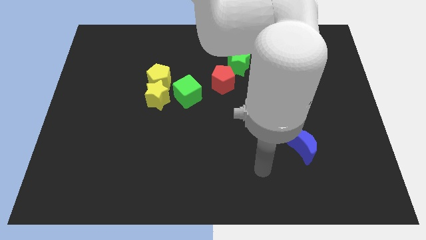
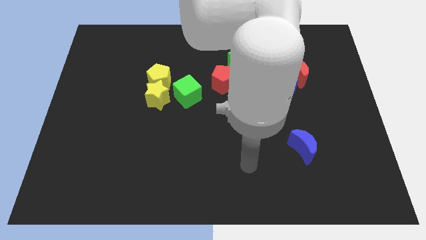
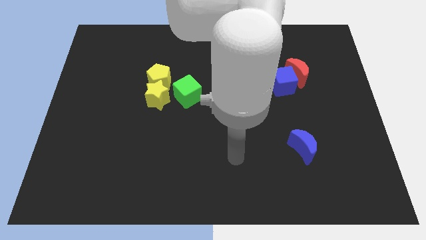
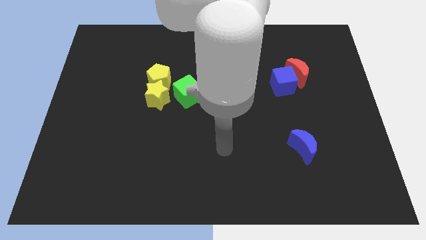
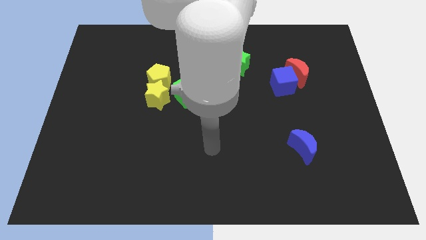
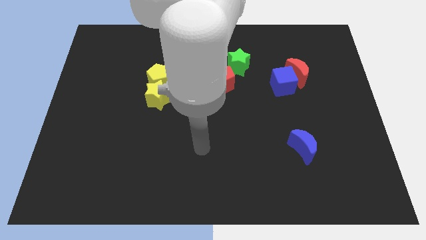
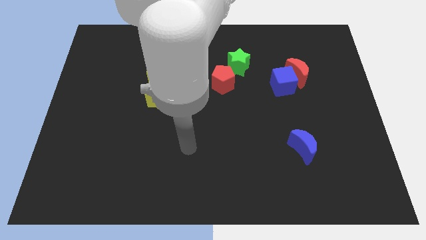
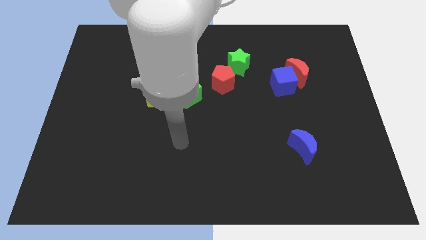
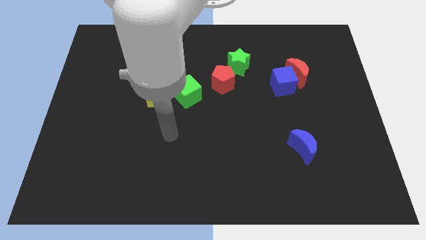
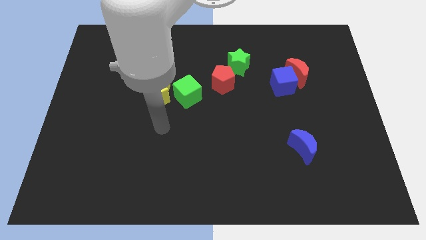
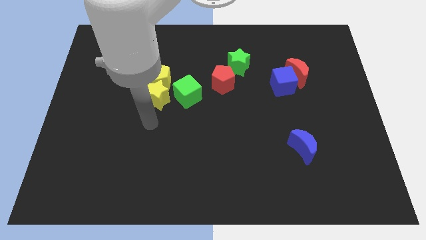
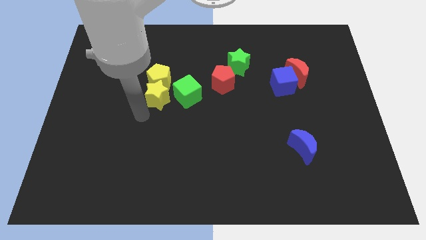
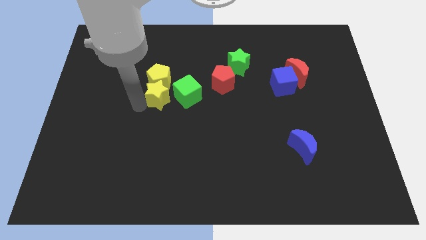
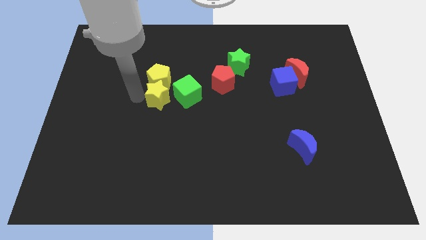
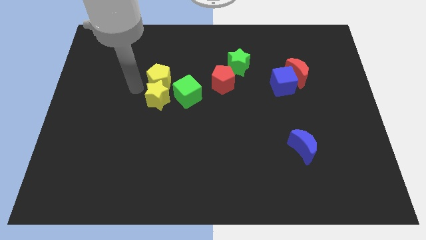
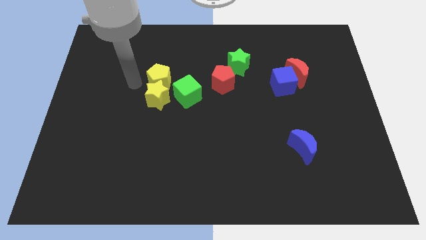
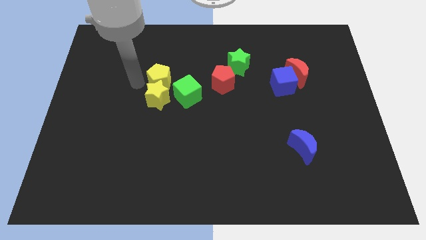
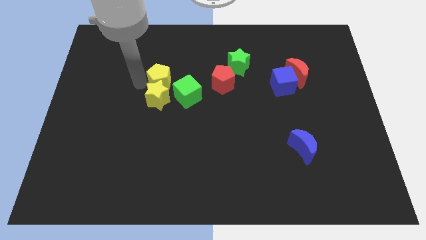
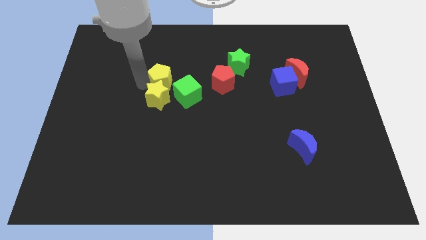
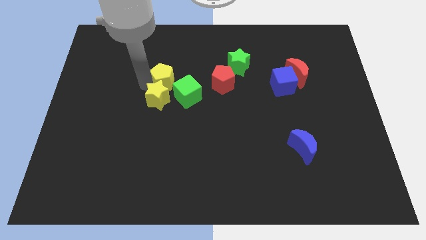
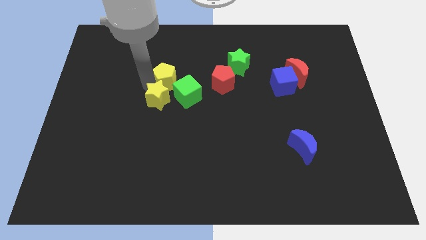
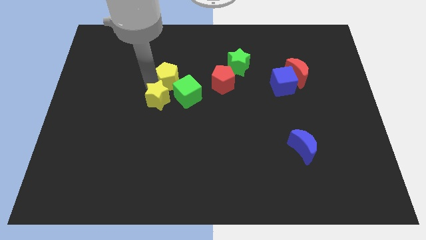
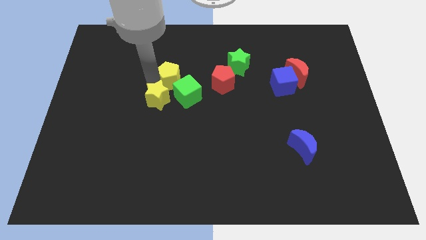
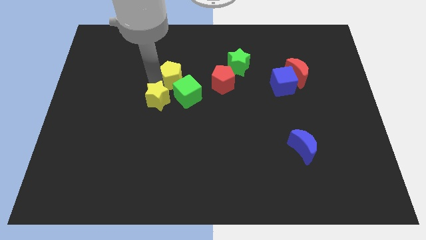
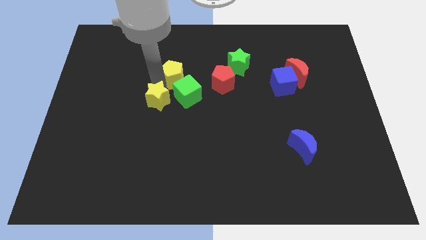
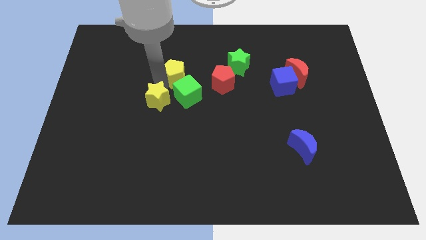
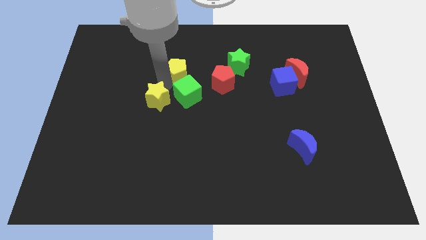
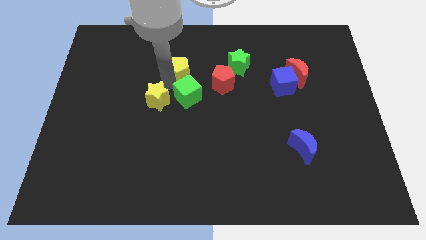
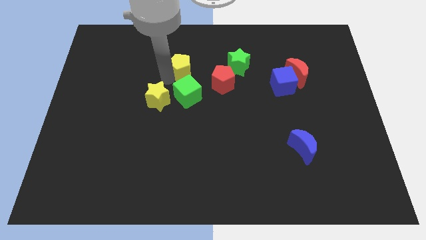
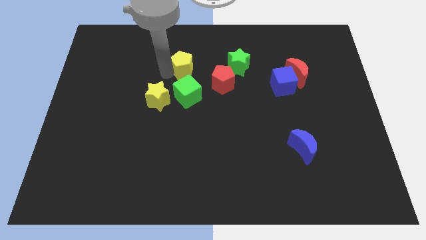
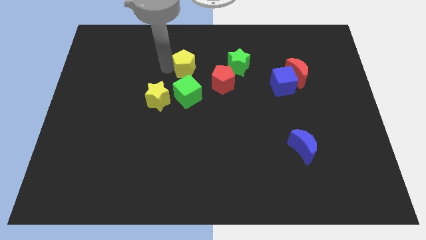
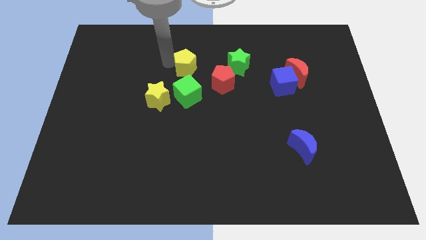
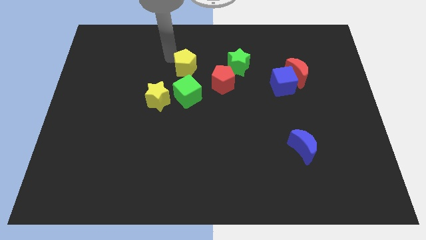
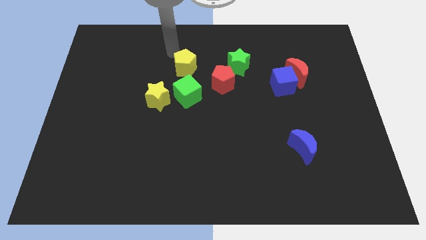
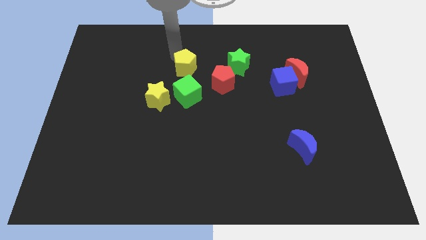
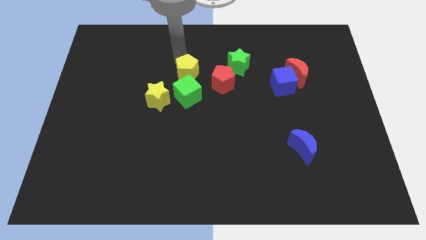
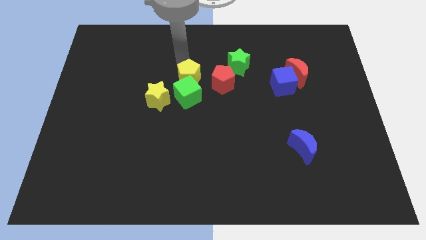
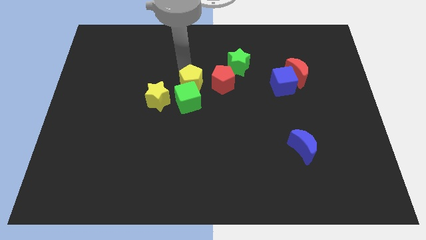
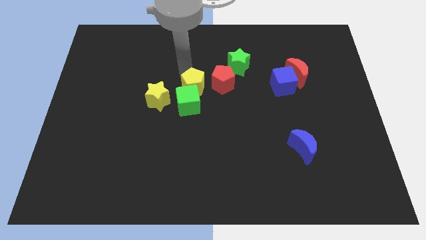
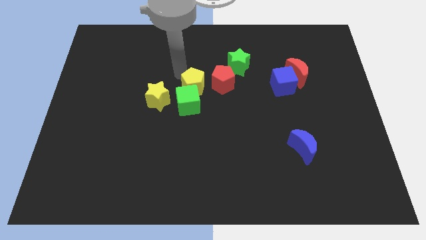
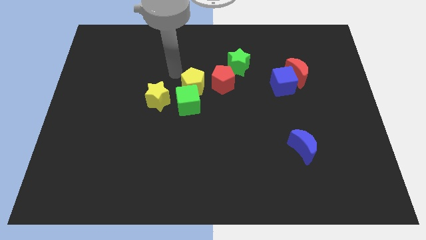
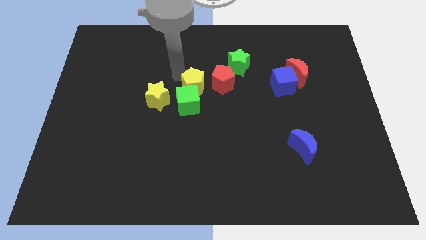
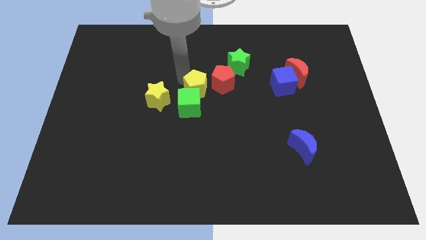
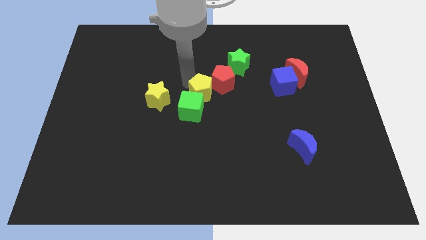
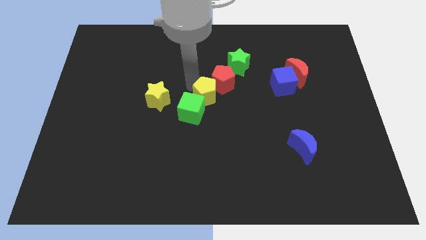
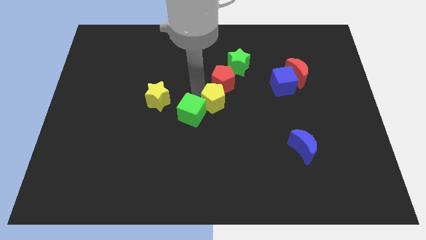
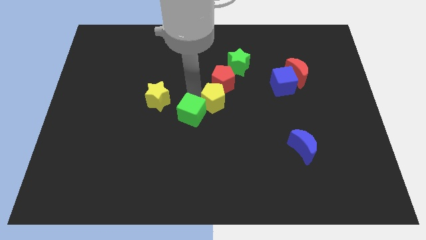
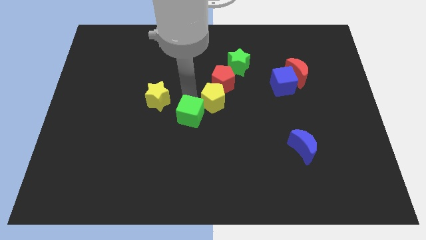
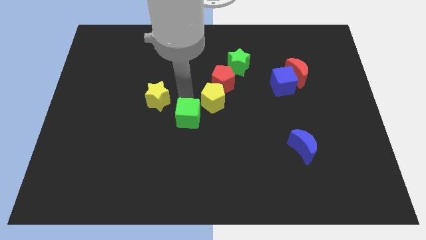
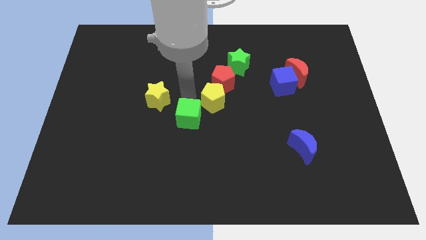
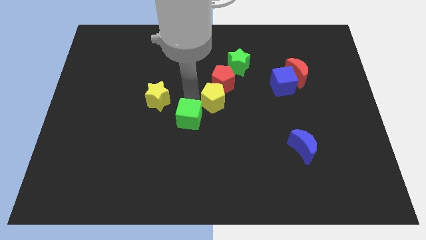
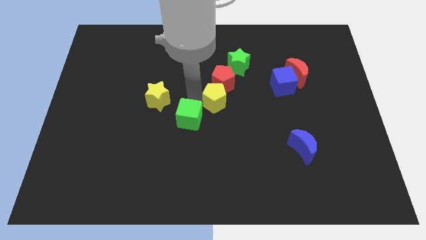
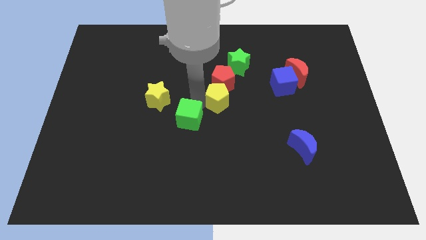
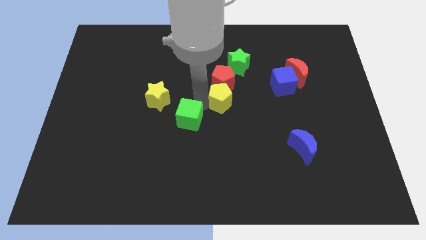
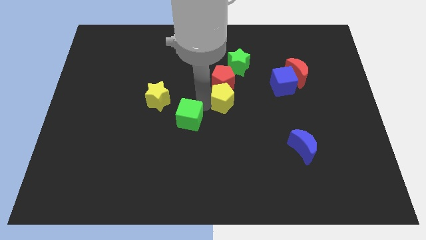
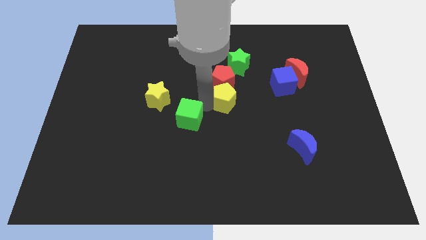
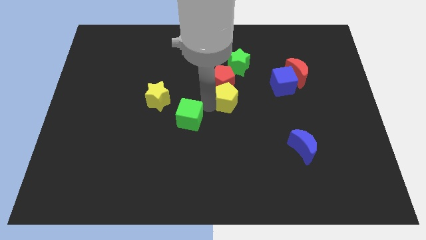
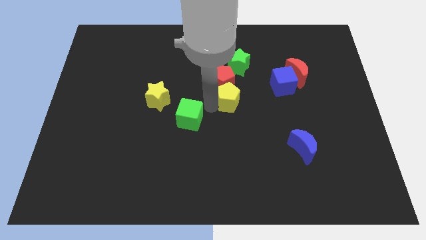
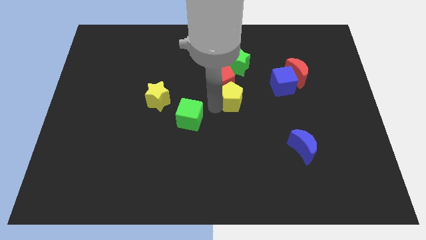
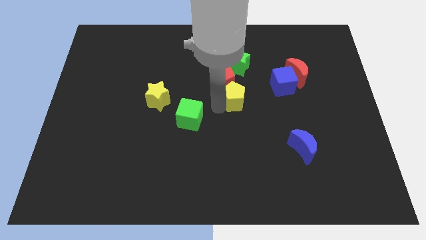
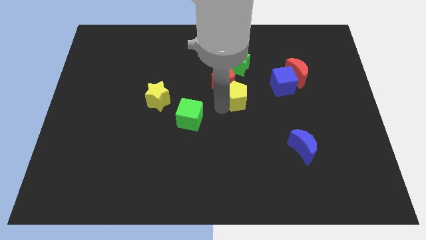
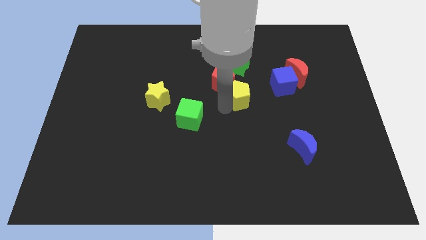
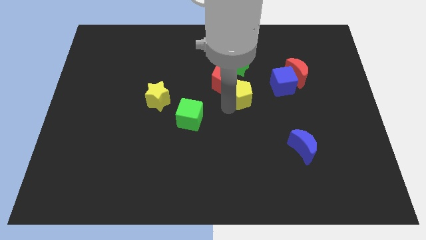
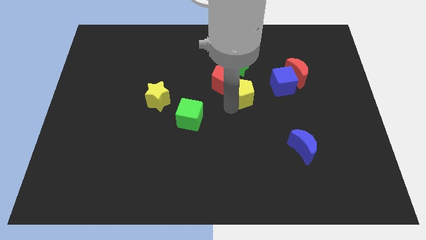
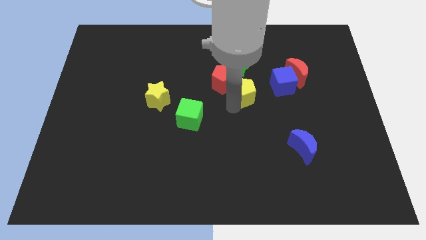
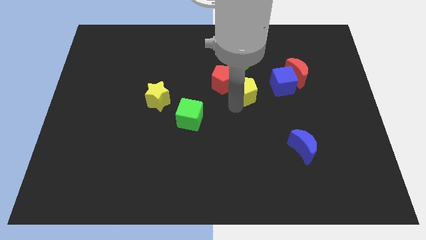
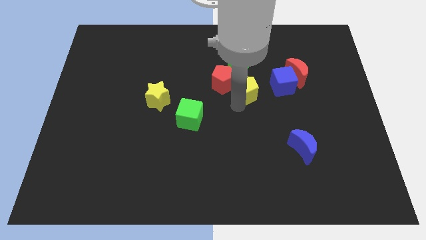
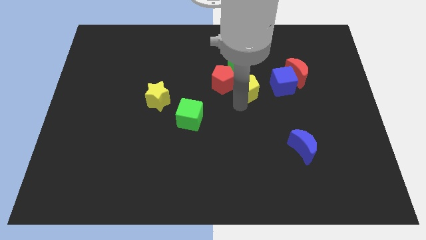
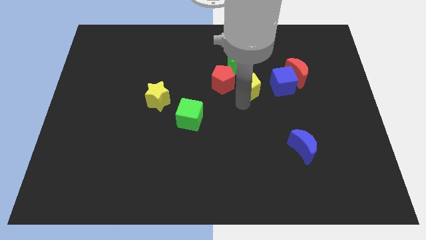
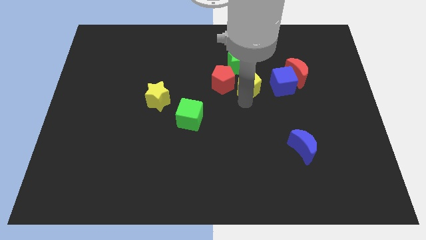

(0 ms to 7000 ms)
move the yellow pentagon just left of the red moon

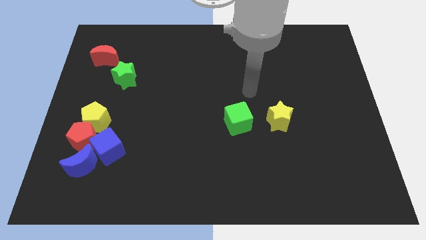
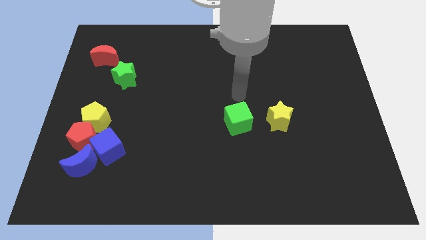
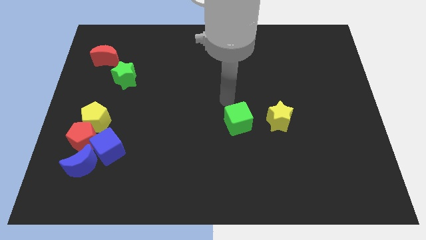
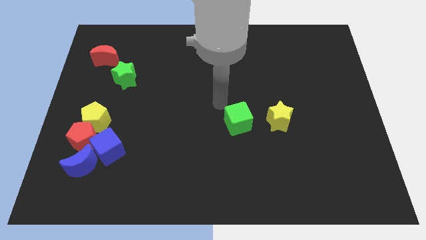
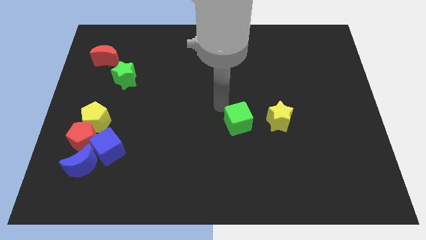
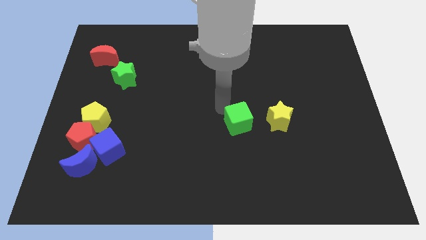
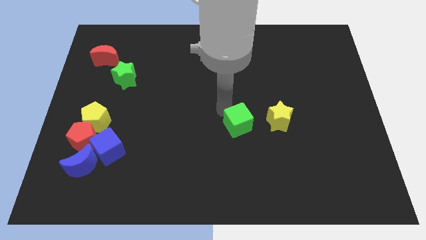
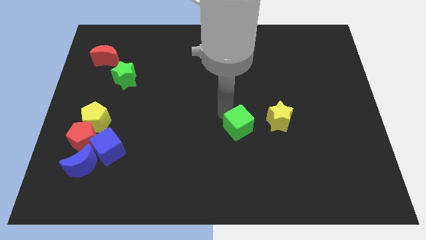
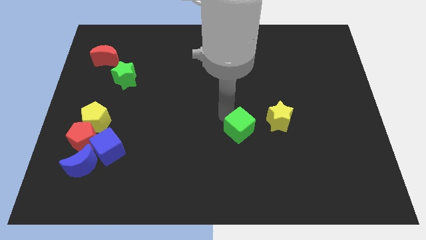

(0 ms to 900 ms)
slide the green cube to the bottom left side of the yellow star

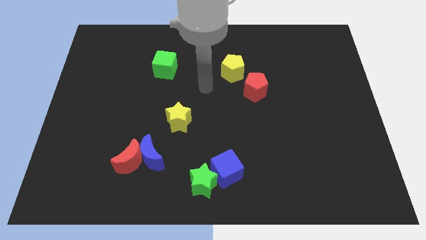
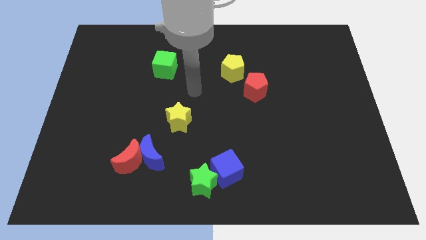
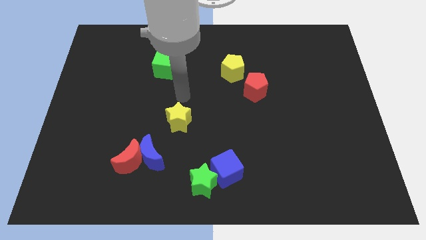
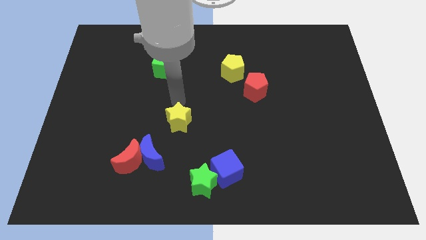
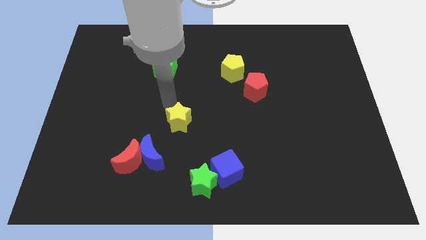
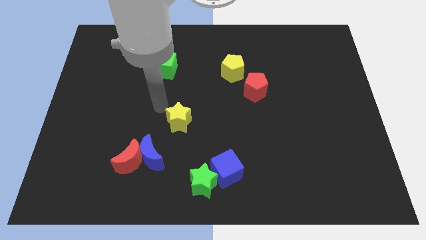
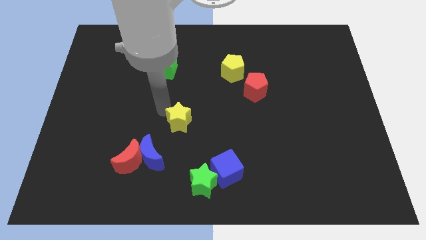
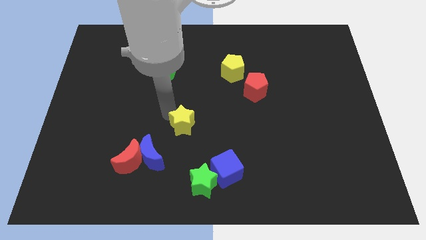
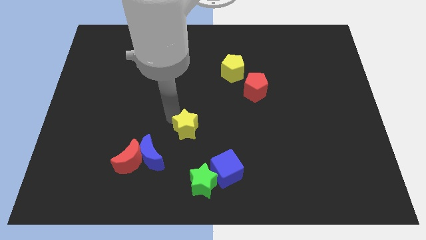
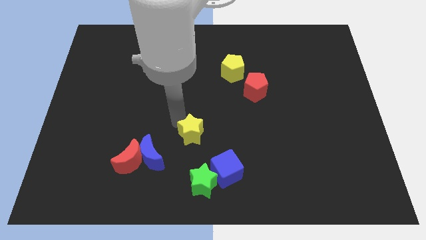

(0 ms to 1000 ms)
slide the yellow star to the top left of the blue cube
